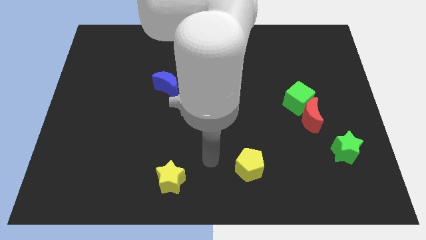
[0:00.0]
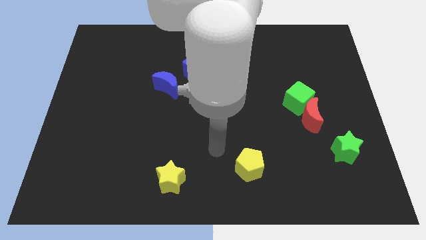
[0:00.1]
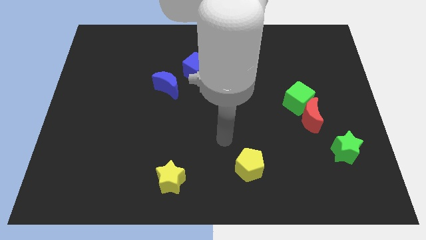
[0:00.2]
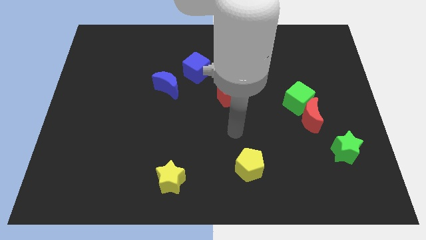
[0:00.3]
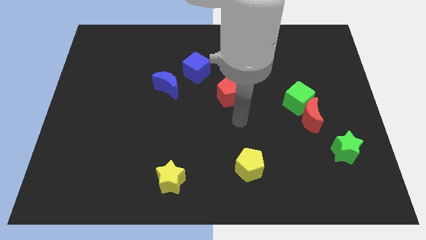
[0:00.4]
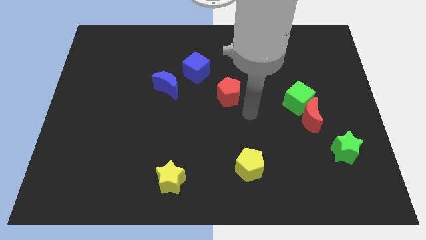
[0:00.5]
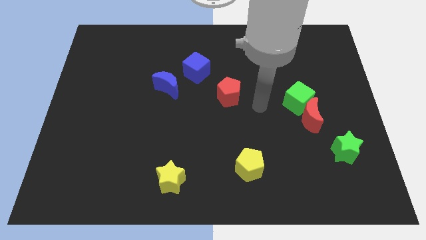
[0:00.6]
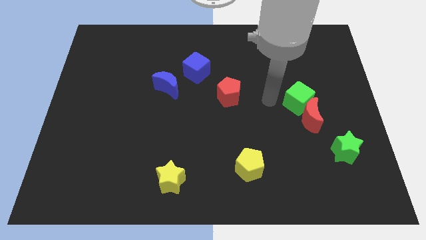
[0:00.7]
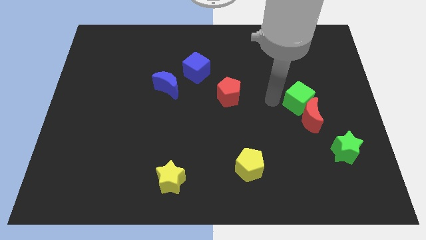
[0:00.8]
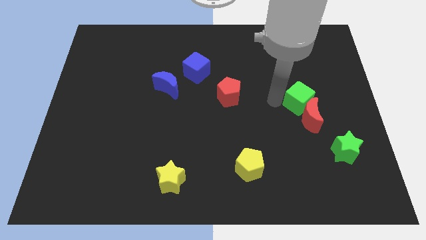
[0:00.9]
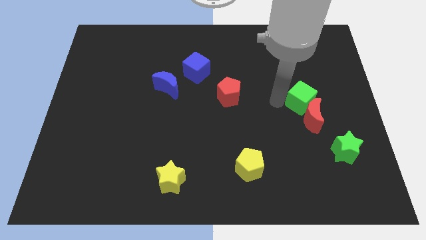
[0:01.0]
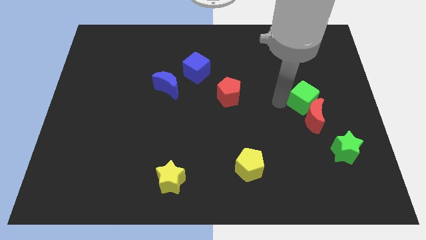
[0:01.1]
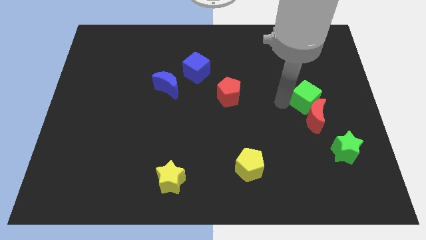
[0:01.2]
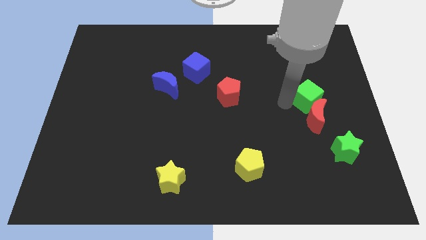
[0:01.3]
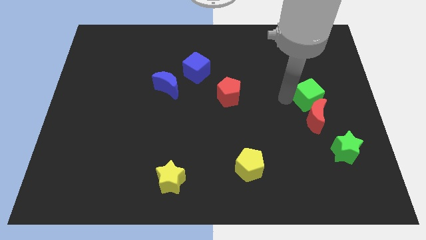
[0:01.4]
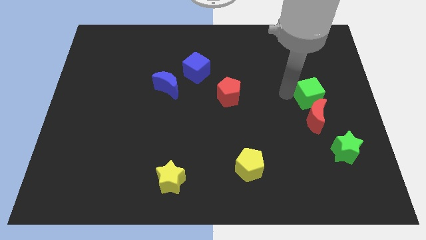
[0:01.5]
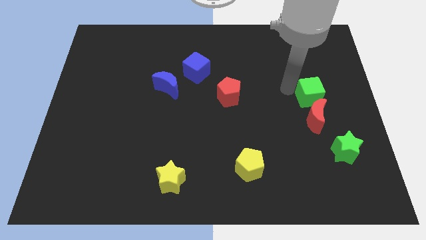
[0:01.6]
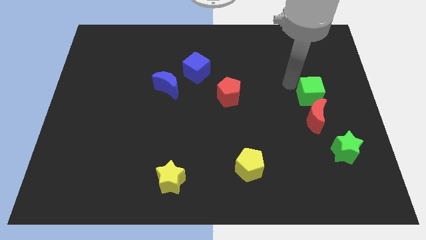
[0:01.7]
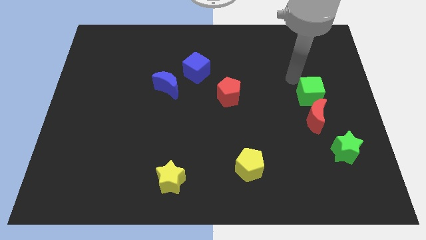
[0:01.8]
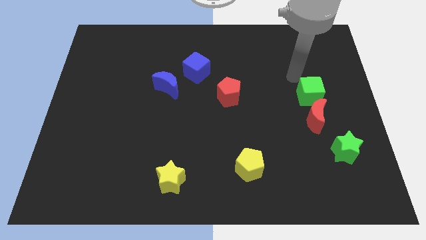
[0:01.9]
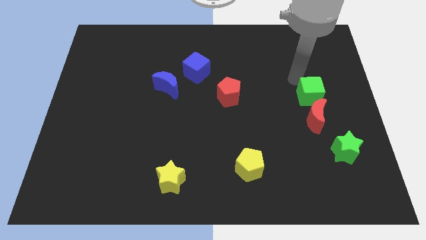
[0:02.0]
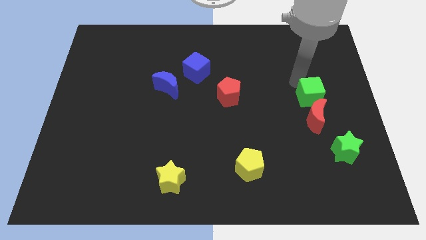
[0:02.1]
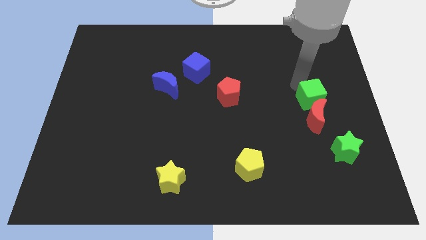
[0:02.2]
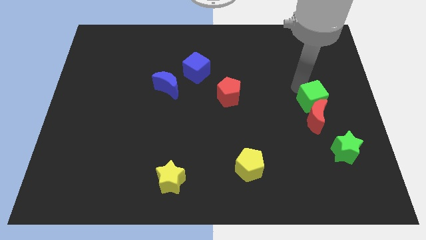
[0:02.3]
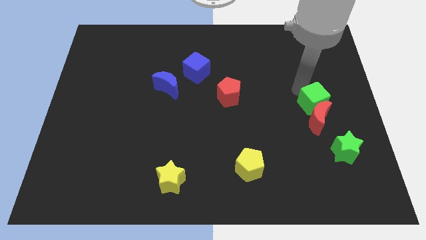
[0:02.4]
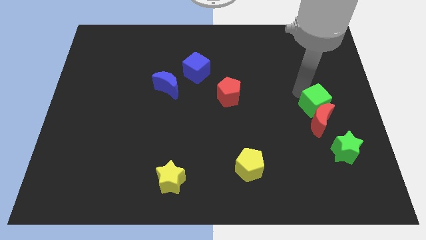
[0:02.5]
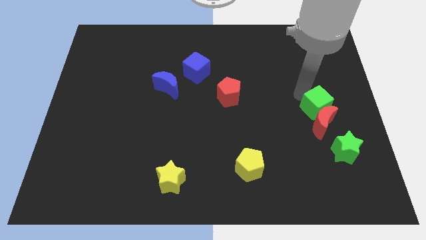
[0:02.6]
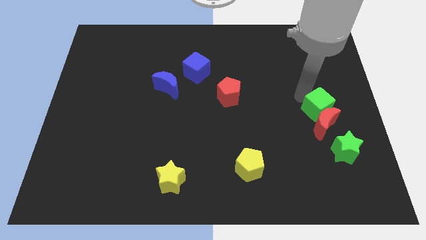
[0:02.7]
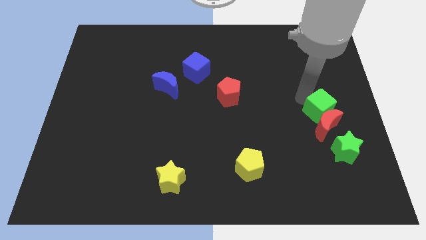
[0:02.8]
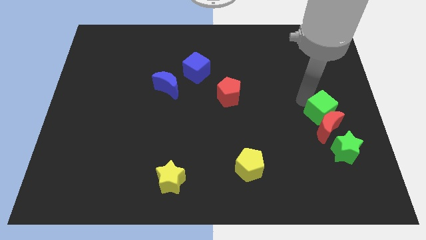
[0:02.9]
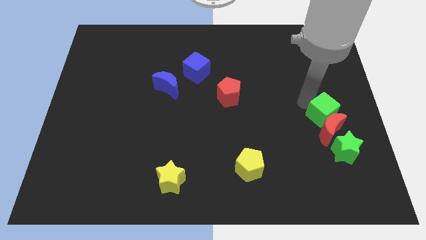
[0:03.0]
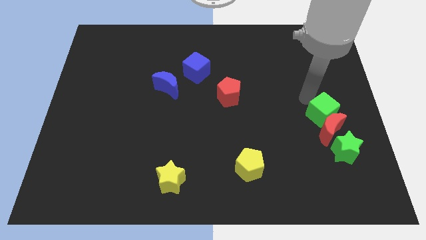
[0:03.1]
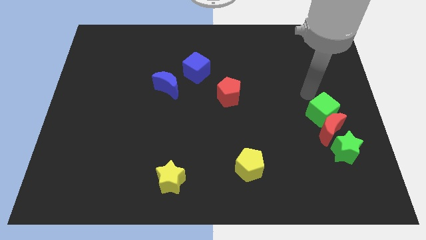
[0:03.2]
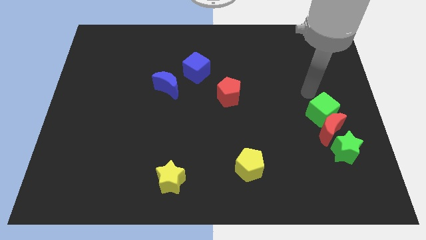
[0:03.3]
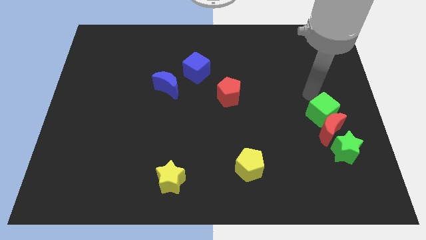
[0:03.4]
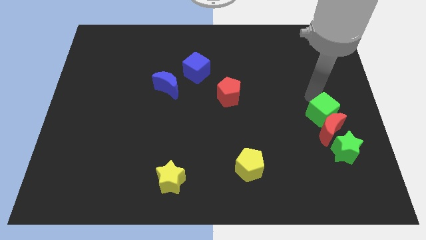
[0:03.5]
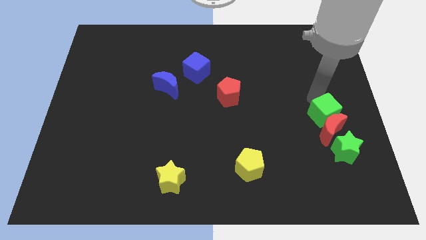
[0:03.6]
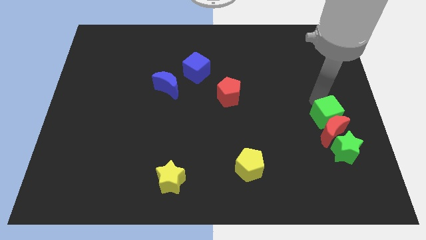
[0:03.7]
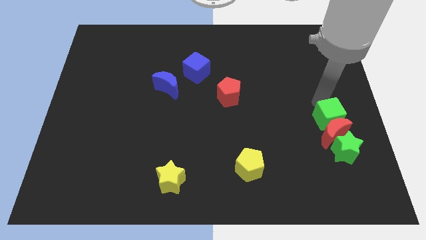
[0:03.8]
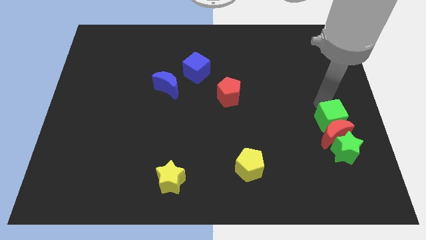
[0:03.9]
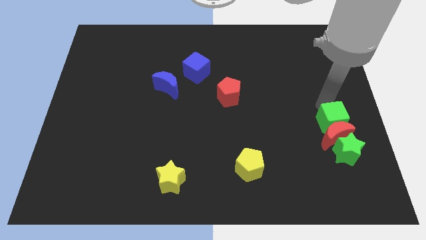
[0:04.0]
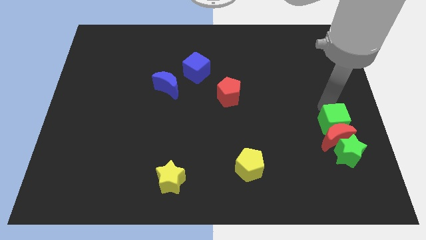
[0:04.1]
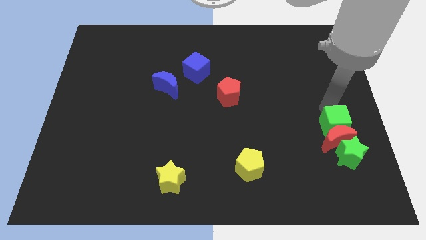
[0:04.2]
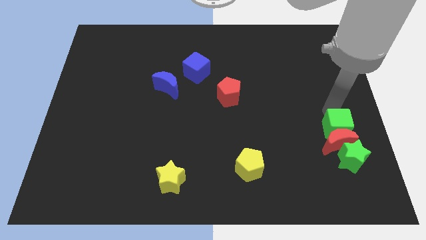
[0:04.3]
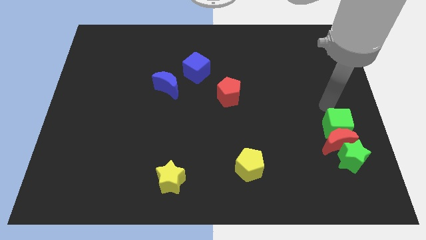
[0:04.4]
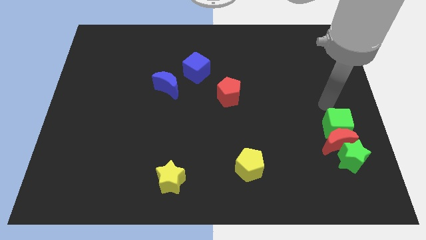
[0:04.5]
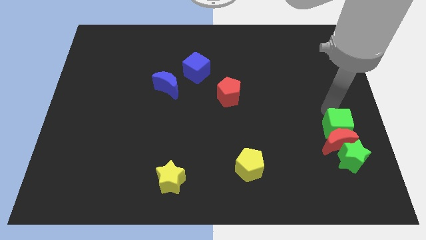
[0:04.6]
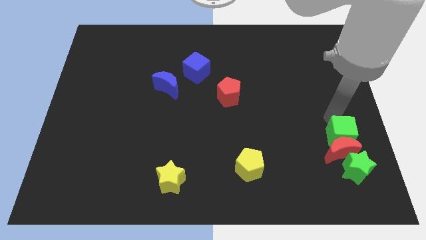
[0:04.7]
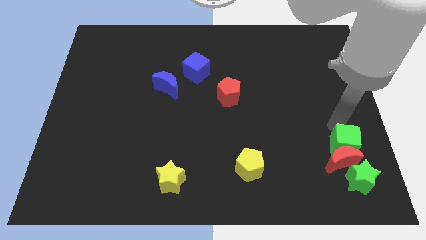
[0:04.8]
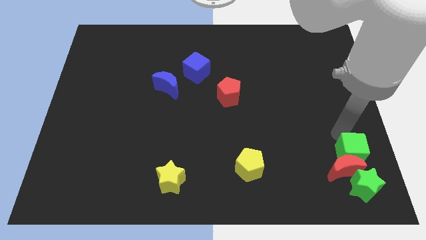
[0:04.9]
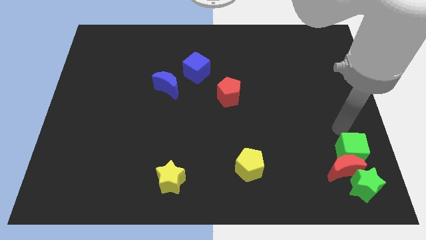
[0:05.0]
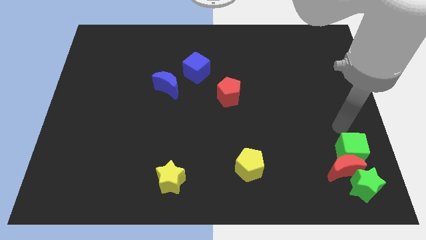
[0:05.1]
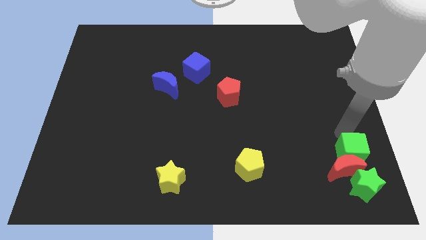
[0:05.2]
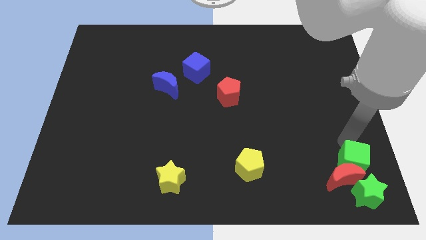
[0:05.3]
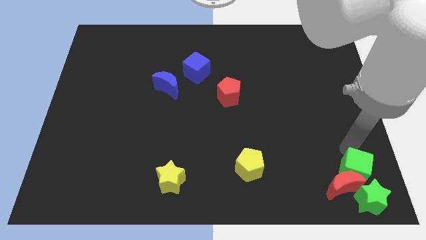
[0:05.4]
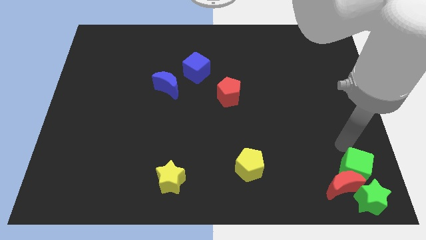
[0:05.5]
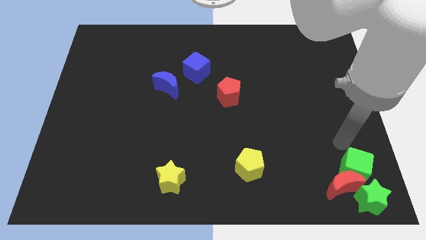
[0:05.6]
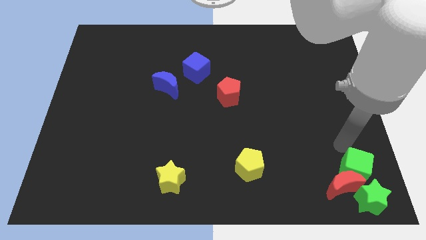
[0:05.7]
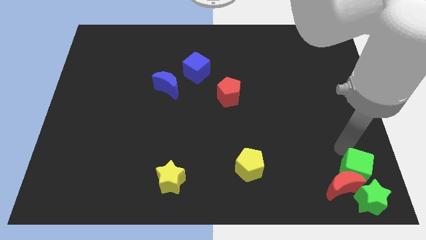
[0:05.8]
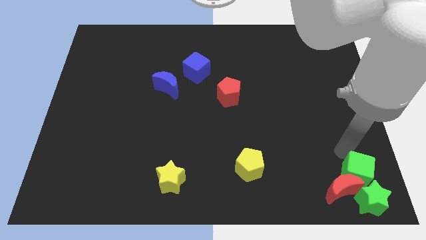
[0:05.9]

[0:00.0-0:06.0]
slide the green cube next to the green star

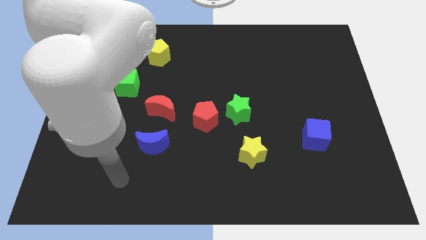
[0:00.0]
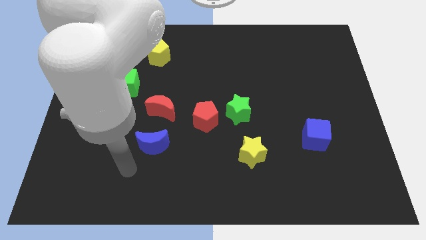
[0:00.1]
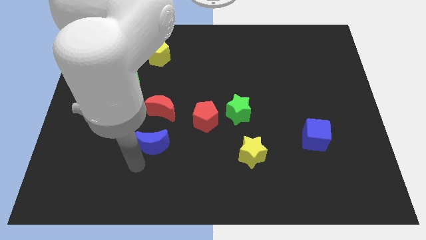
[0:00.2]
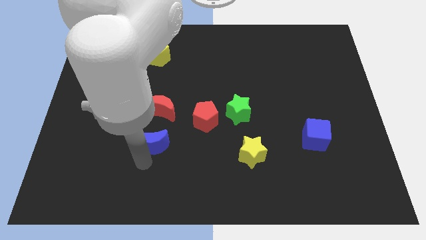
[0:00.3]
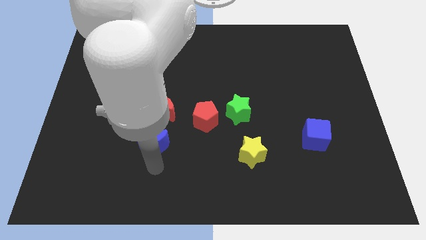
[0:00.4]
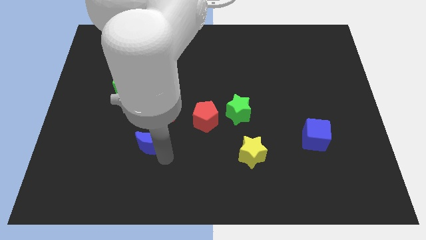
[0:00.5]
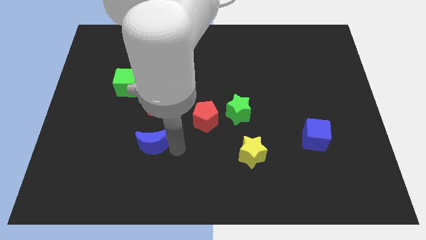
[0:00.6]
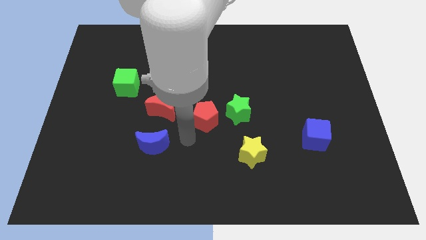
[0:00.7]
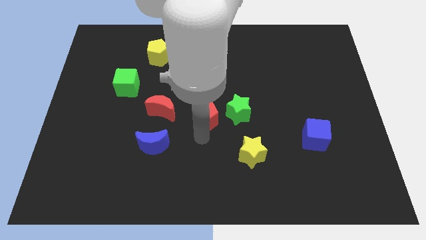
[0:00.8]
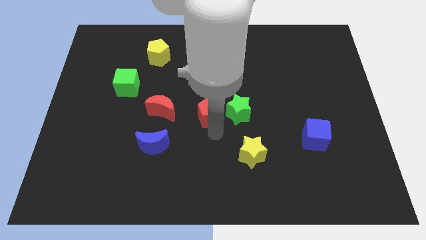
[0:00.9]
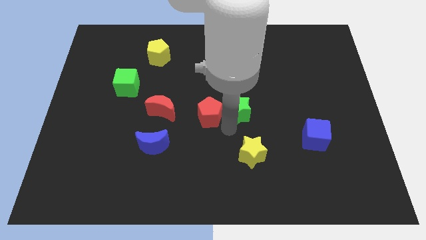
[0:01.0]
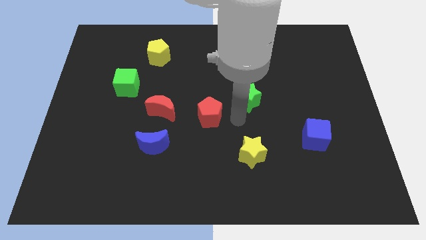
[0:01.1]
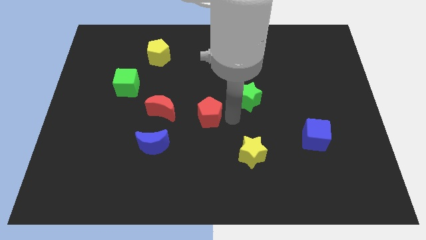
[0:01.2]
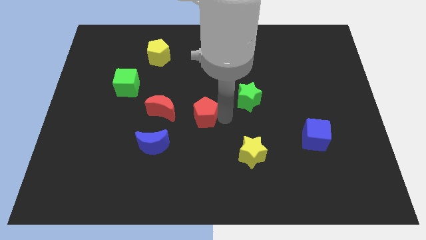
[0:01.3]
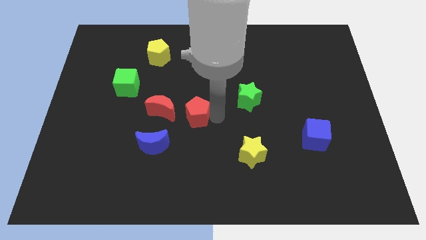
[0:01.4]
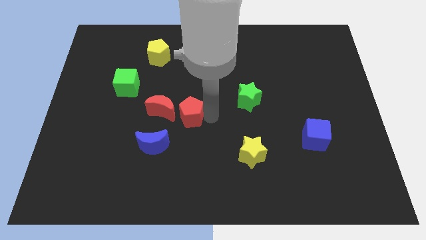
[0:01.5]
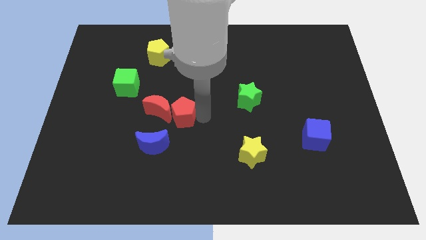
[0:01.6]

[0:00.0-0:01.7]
slide the red pentagon next to the red moon
